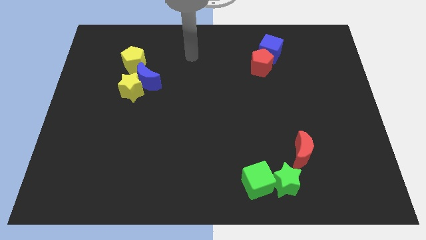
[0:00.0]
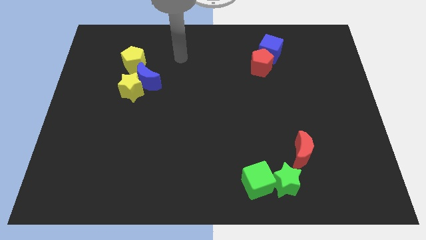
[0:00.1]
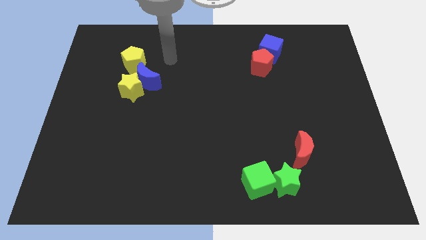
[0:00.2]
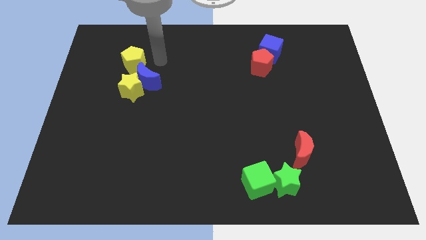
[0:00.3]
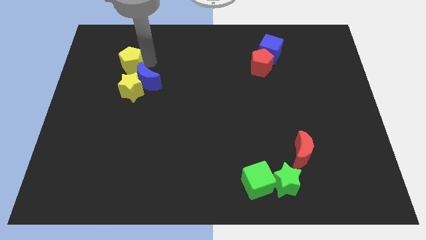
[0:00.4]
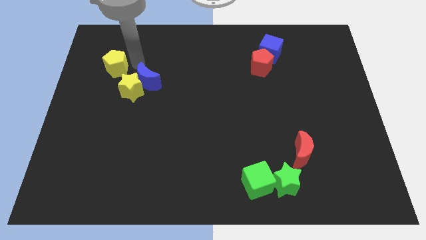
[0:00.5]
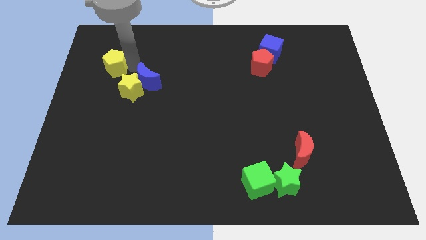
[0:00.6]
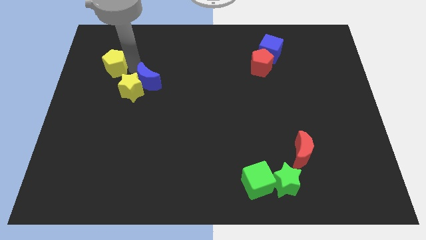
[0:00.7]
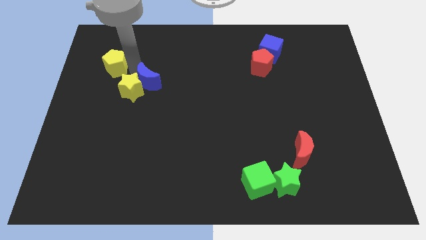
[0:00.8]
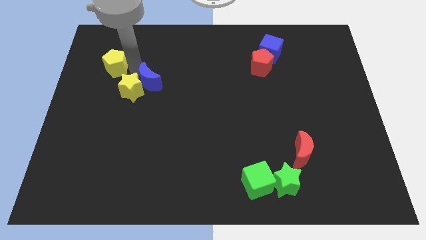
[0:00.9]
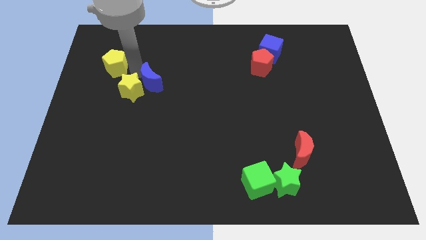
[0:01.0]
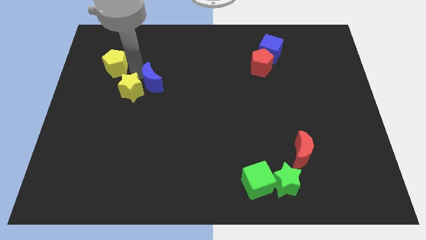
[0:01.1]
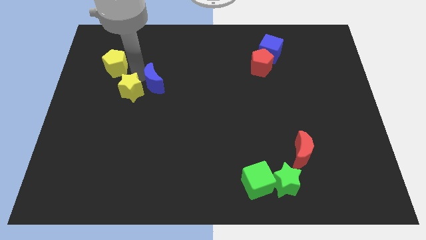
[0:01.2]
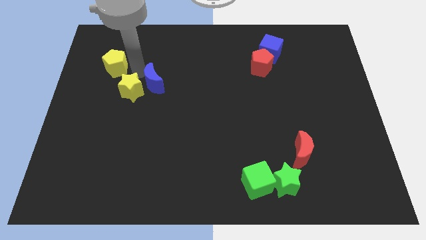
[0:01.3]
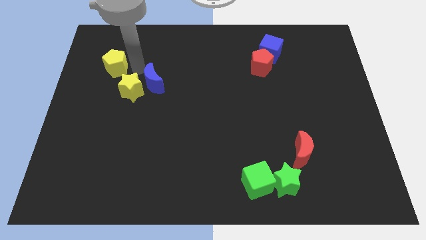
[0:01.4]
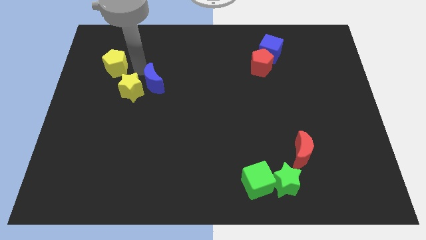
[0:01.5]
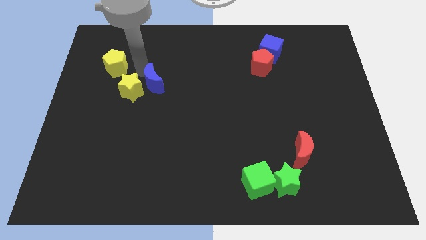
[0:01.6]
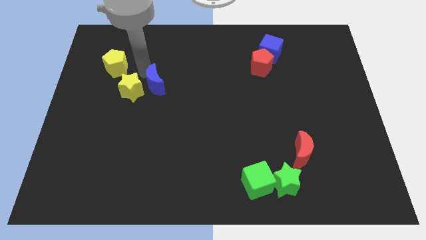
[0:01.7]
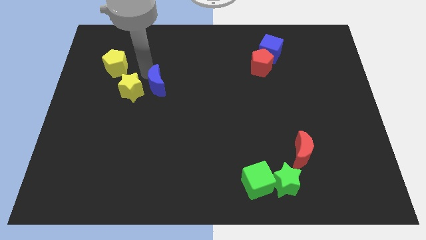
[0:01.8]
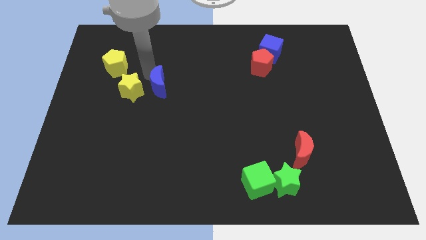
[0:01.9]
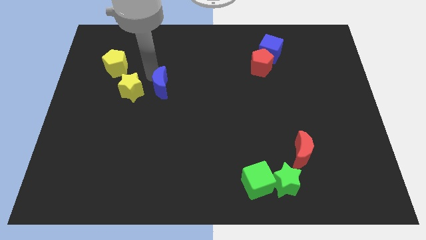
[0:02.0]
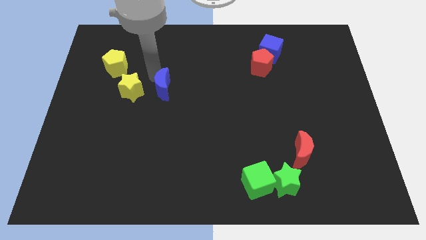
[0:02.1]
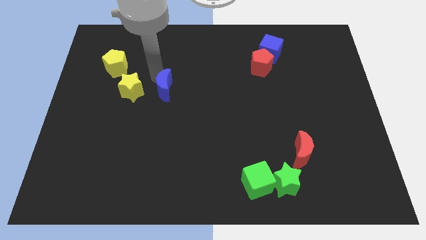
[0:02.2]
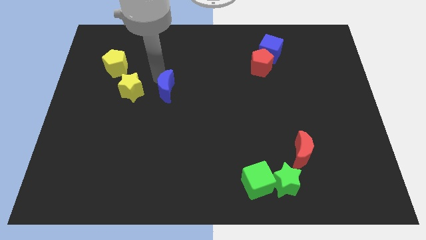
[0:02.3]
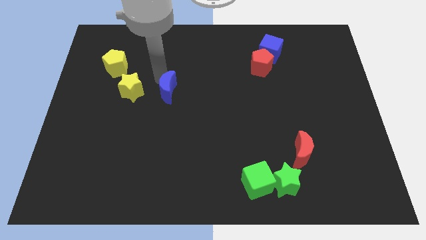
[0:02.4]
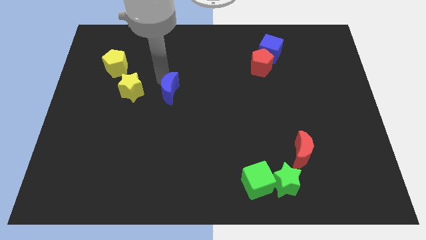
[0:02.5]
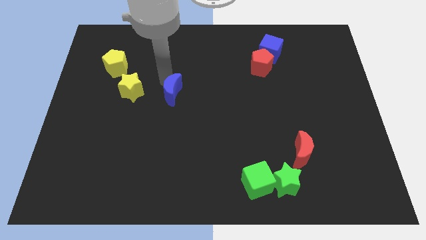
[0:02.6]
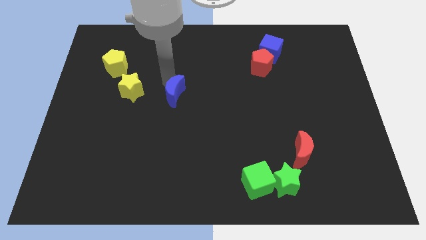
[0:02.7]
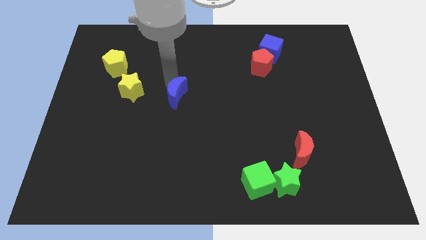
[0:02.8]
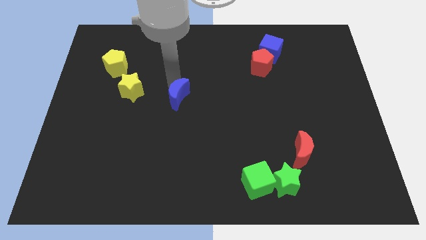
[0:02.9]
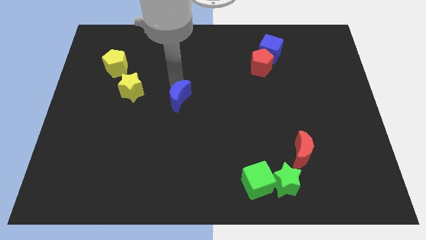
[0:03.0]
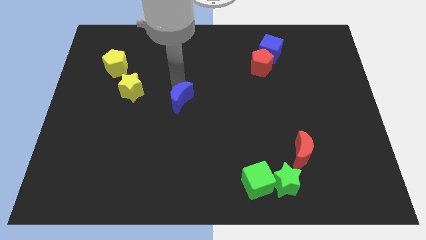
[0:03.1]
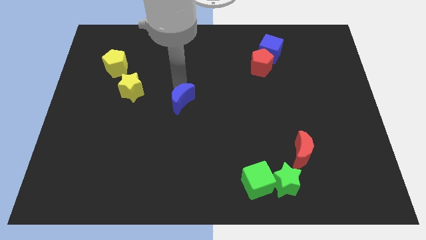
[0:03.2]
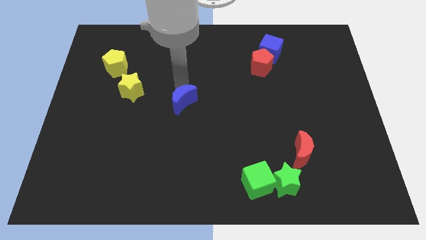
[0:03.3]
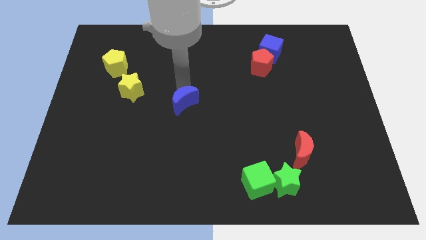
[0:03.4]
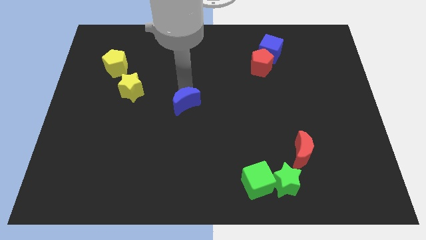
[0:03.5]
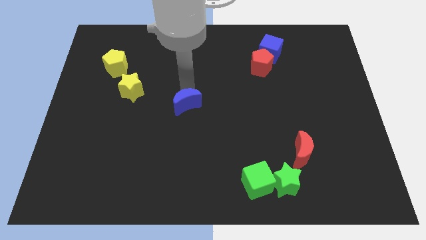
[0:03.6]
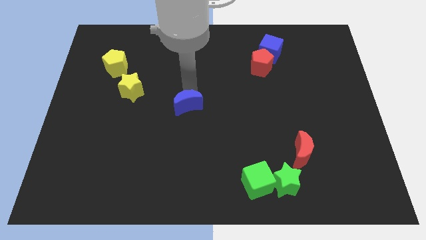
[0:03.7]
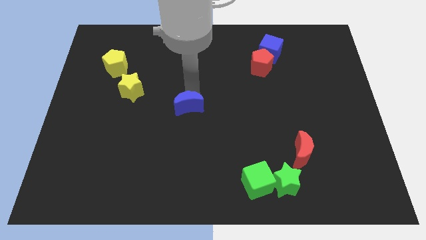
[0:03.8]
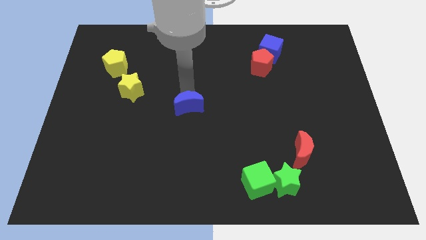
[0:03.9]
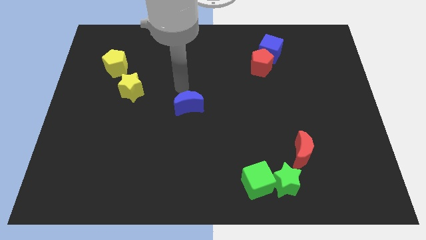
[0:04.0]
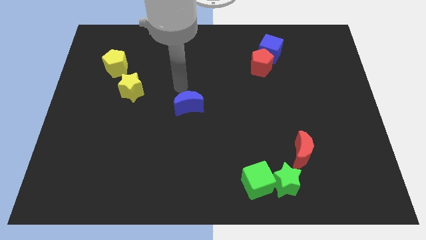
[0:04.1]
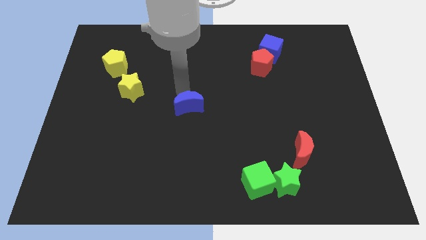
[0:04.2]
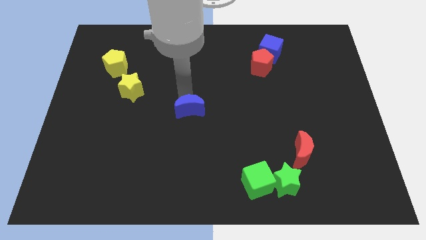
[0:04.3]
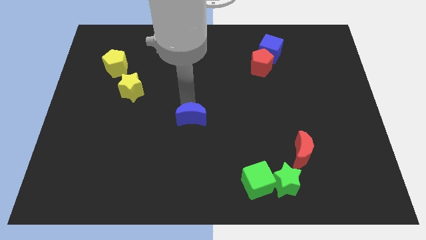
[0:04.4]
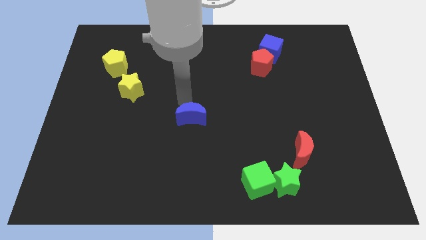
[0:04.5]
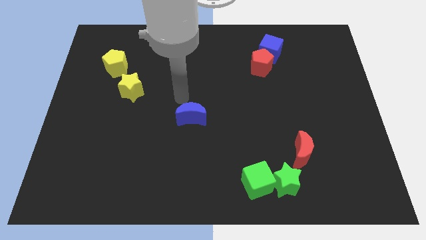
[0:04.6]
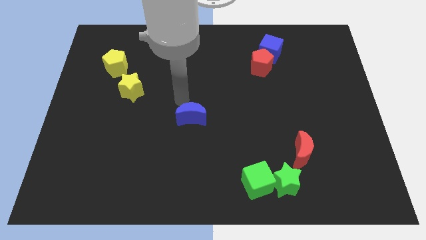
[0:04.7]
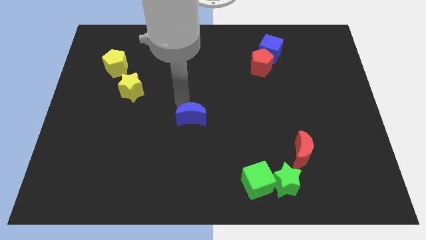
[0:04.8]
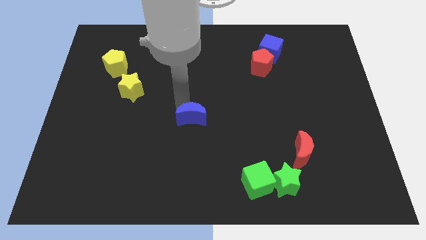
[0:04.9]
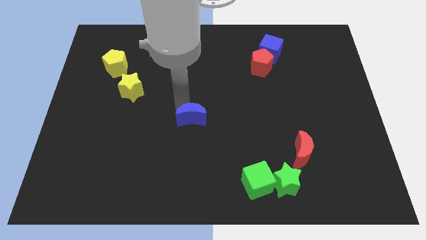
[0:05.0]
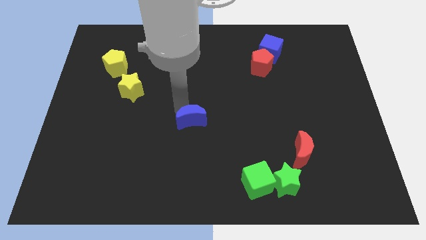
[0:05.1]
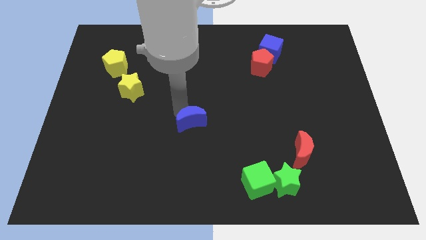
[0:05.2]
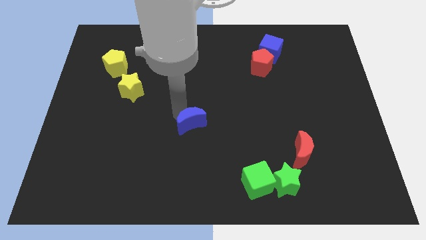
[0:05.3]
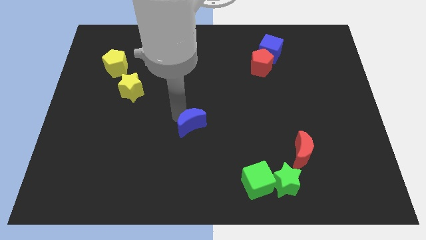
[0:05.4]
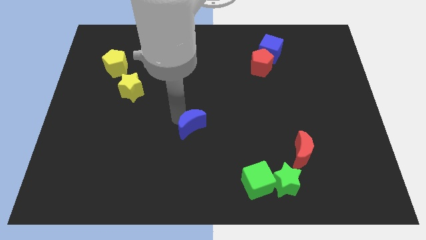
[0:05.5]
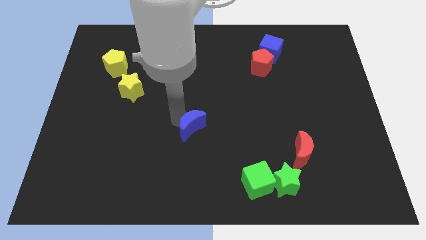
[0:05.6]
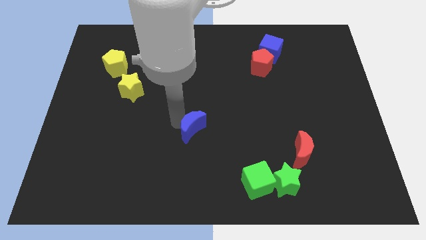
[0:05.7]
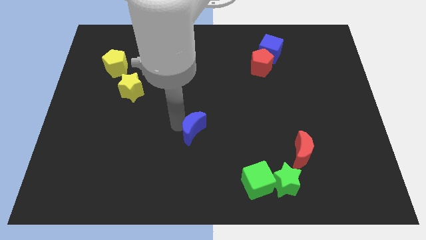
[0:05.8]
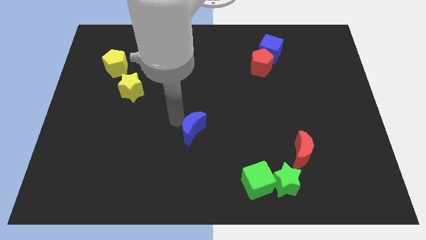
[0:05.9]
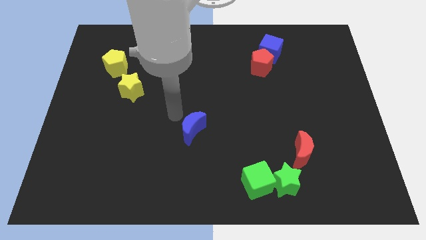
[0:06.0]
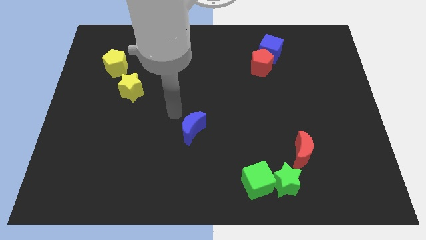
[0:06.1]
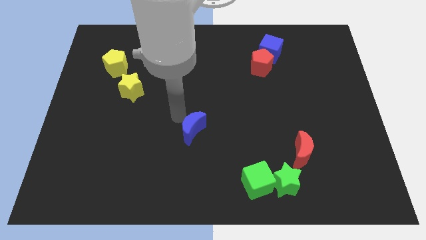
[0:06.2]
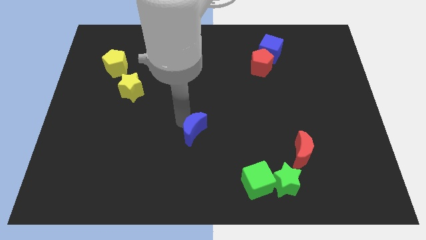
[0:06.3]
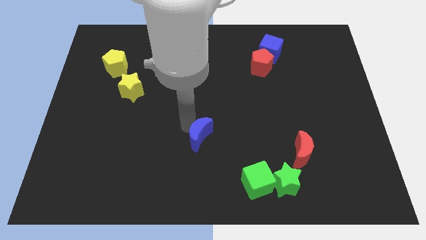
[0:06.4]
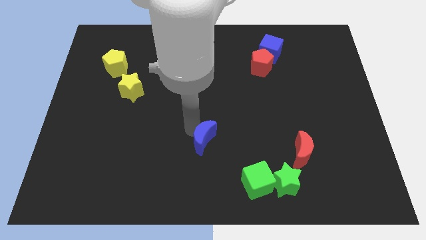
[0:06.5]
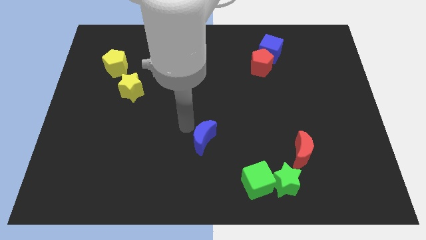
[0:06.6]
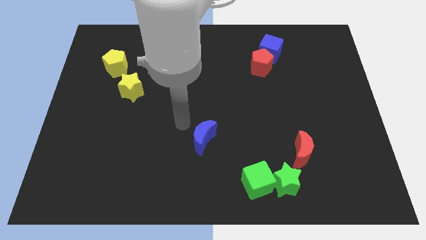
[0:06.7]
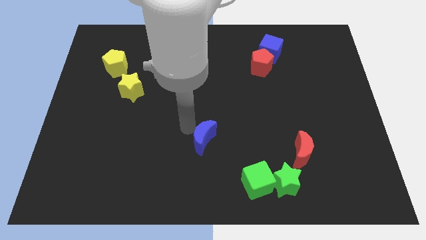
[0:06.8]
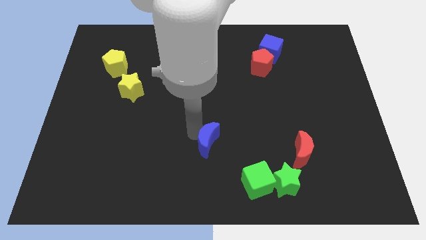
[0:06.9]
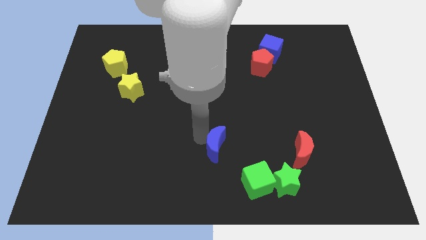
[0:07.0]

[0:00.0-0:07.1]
slide the blue moon diagonally up and to the left of the green cube
